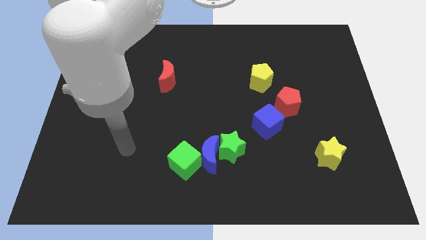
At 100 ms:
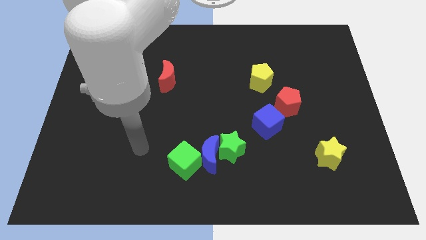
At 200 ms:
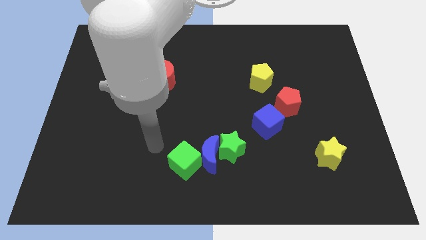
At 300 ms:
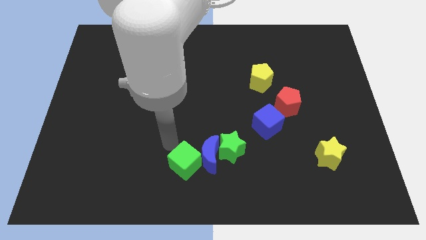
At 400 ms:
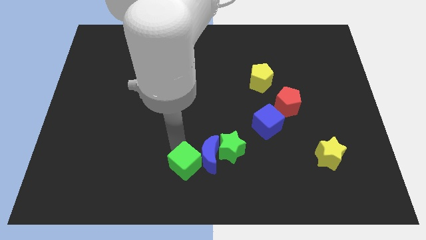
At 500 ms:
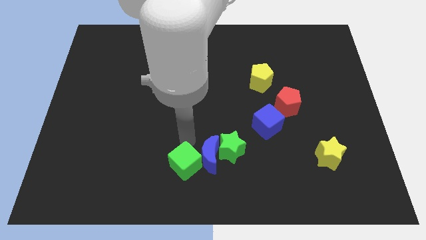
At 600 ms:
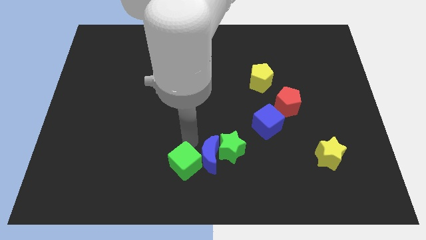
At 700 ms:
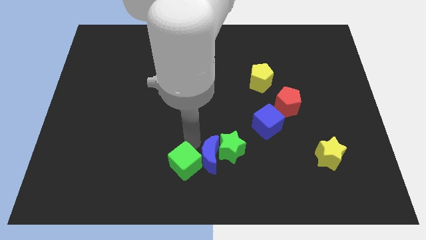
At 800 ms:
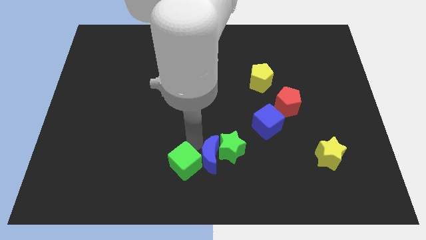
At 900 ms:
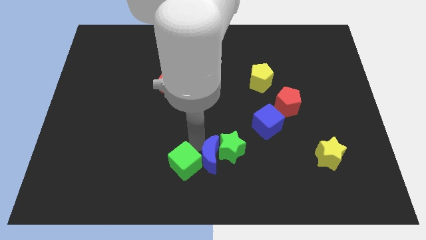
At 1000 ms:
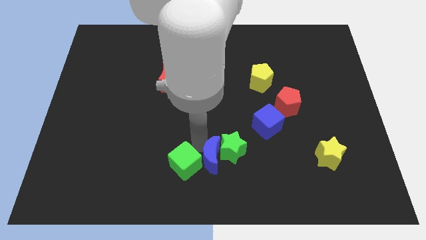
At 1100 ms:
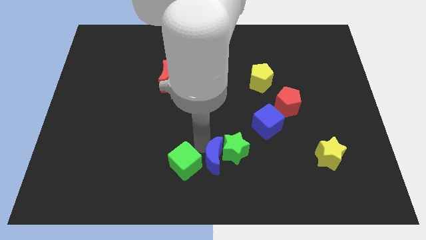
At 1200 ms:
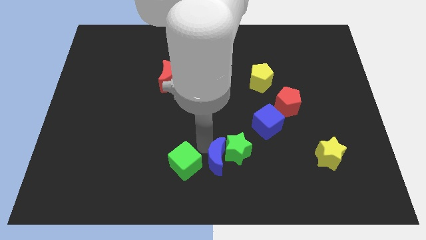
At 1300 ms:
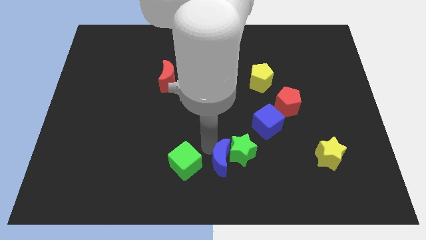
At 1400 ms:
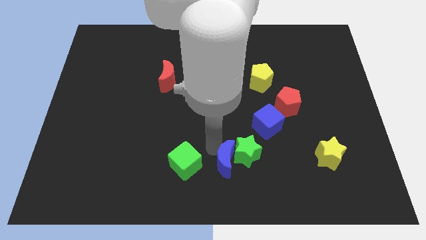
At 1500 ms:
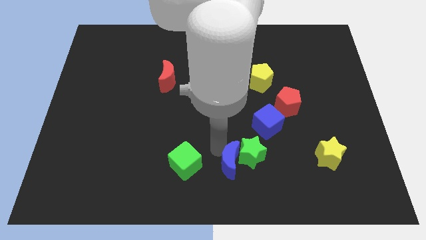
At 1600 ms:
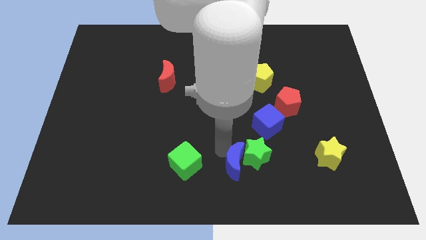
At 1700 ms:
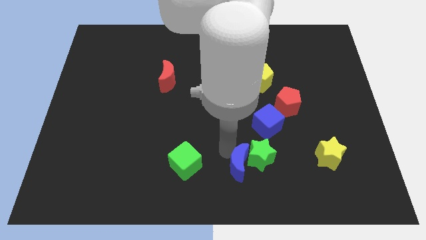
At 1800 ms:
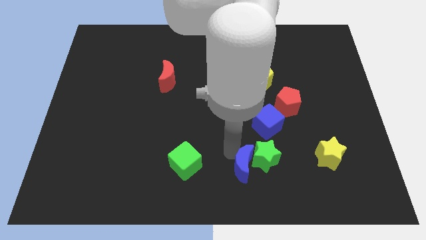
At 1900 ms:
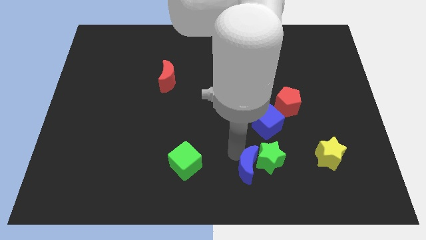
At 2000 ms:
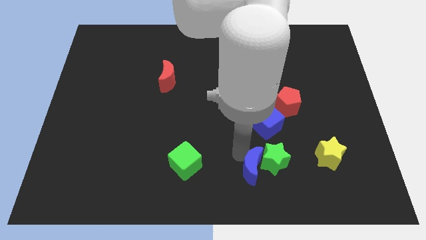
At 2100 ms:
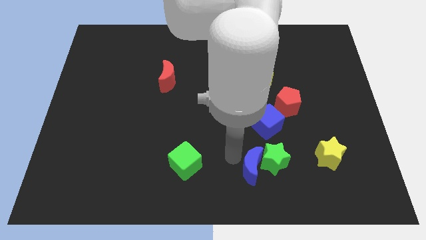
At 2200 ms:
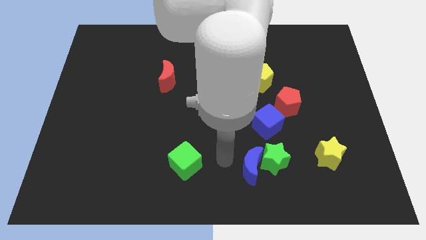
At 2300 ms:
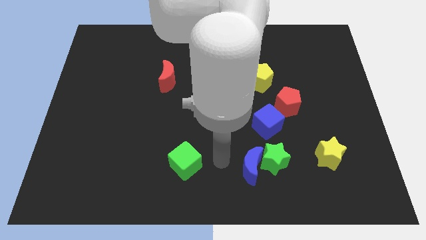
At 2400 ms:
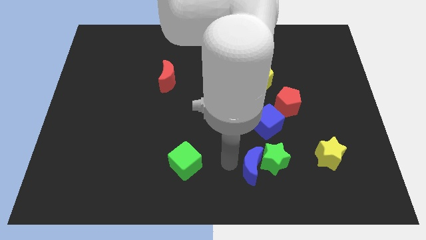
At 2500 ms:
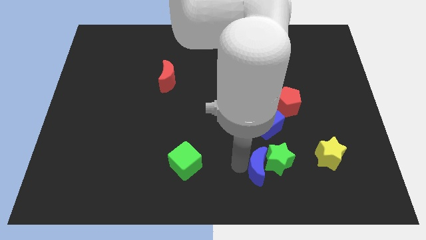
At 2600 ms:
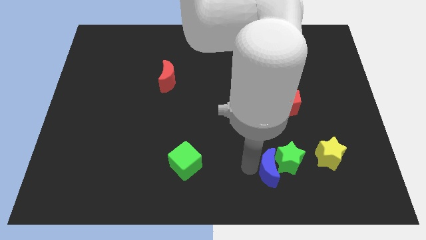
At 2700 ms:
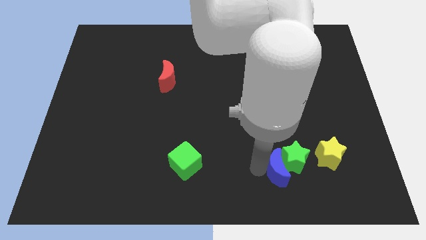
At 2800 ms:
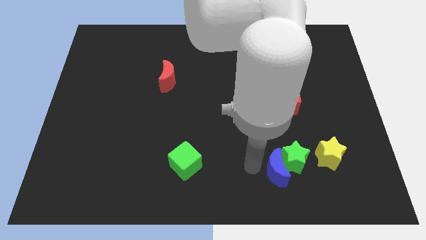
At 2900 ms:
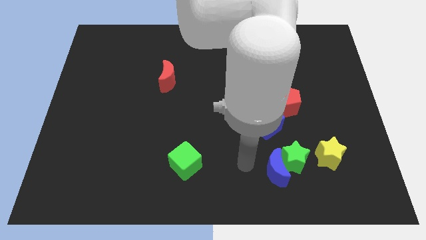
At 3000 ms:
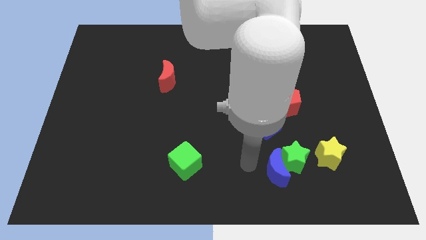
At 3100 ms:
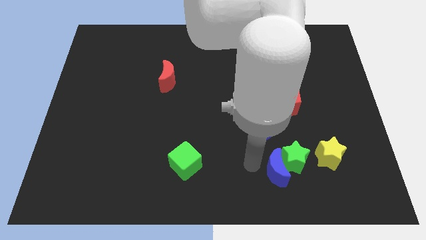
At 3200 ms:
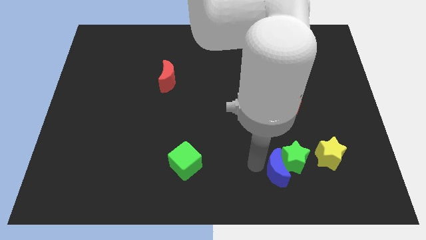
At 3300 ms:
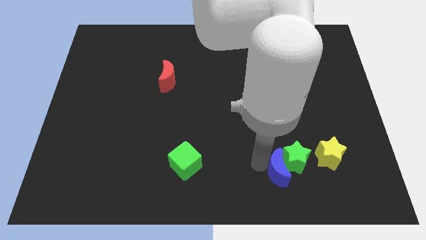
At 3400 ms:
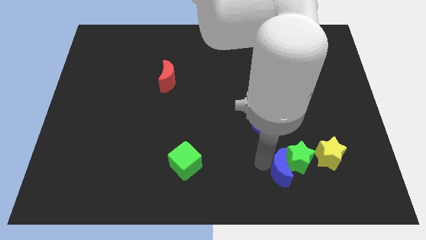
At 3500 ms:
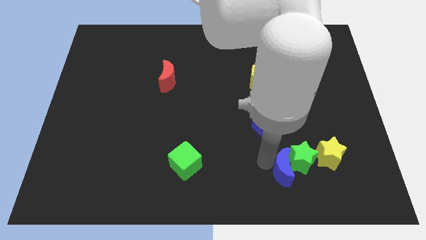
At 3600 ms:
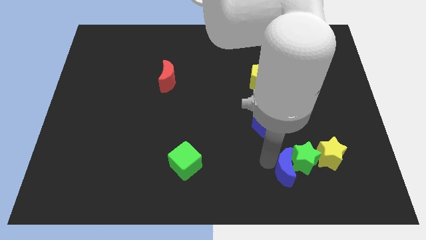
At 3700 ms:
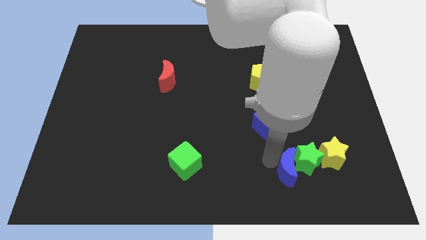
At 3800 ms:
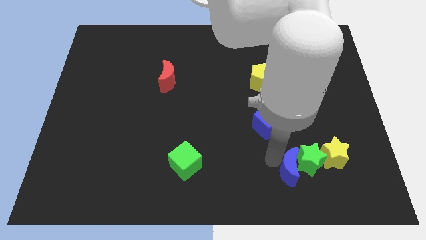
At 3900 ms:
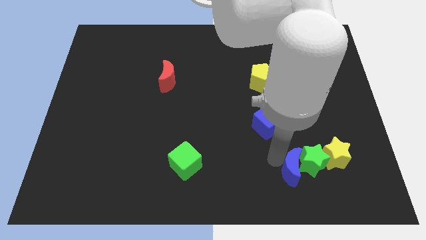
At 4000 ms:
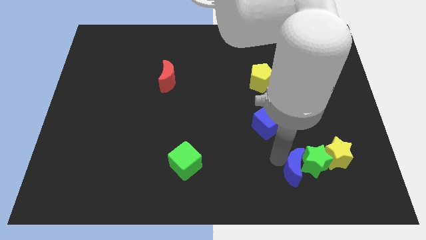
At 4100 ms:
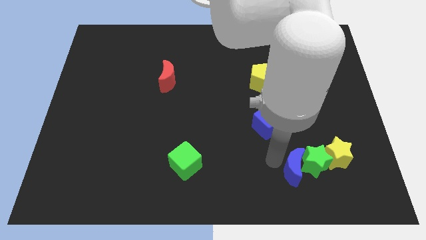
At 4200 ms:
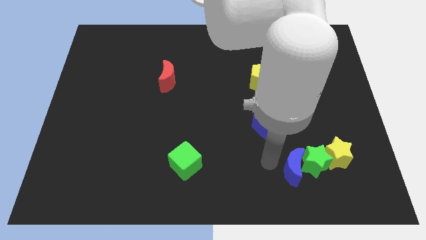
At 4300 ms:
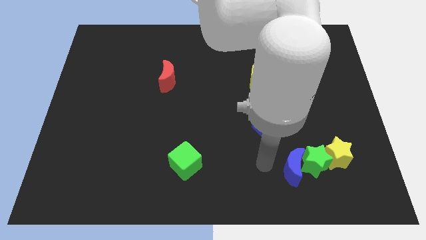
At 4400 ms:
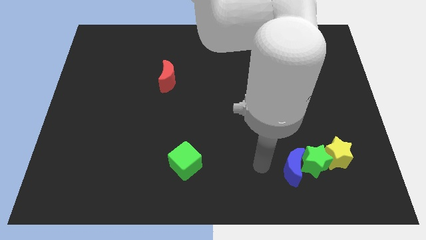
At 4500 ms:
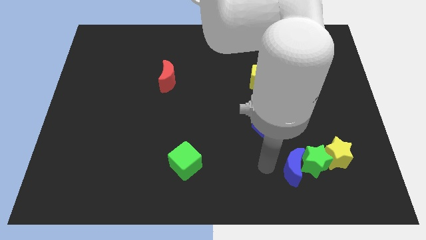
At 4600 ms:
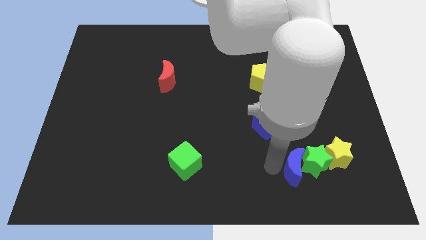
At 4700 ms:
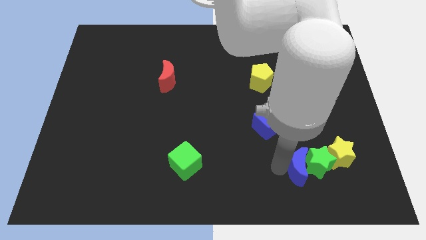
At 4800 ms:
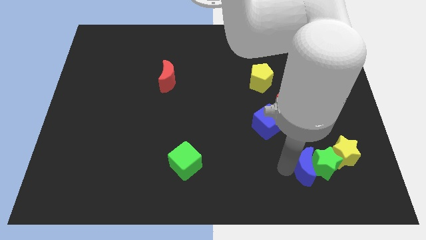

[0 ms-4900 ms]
pull the blue moon apart from the green star and green cube

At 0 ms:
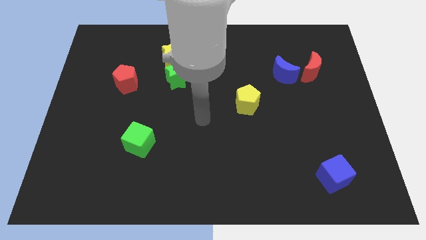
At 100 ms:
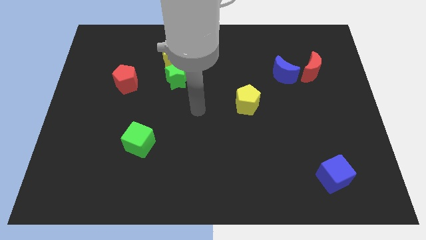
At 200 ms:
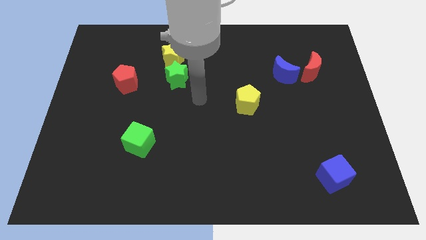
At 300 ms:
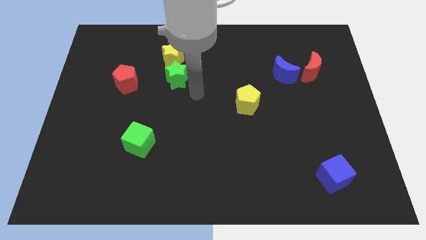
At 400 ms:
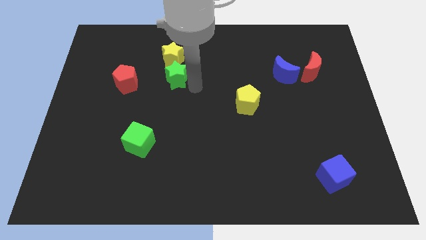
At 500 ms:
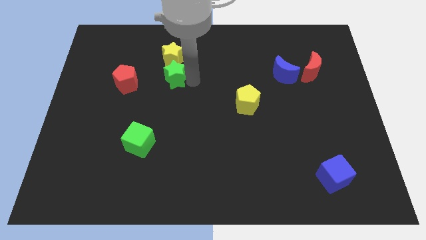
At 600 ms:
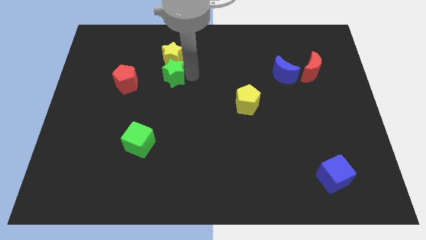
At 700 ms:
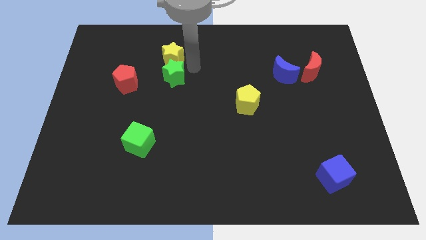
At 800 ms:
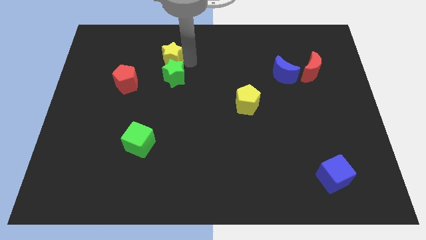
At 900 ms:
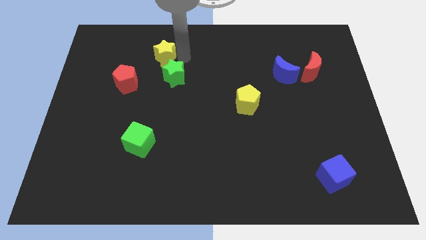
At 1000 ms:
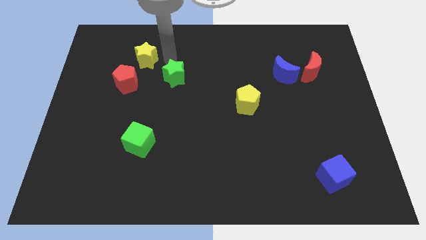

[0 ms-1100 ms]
move the green star away from the yellow star

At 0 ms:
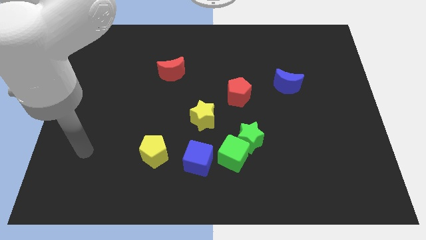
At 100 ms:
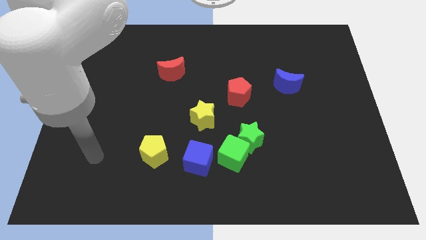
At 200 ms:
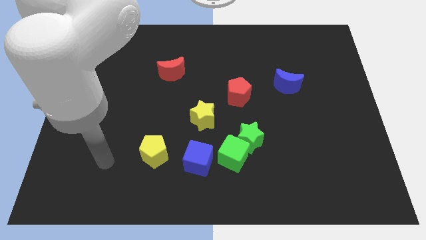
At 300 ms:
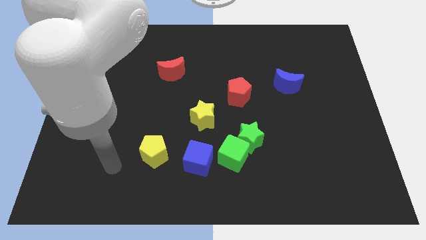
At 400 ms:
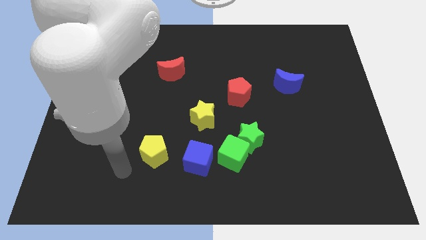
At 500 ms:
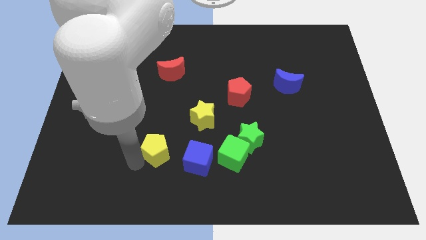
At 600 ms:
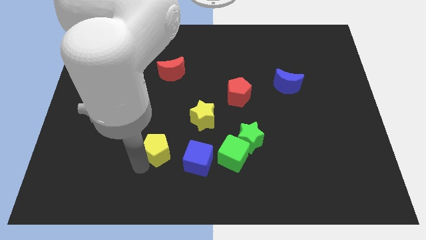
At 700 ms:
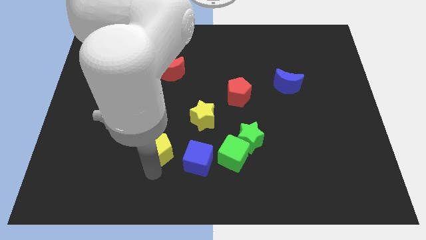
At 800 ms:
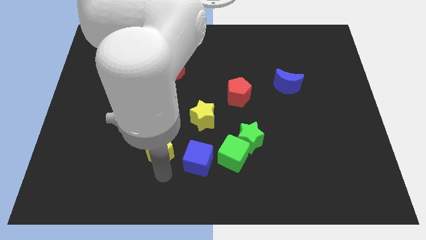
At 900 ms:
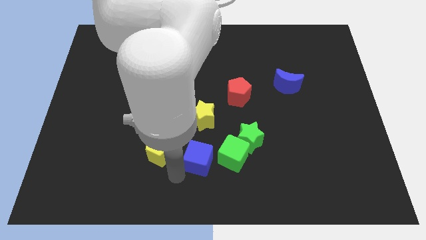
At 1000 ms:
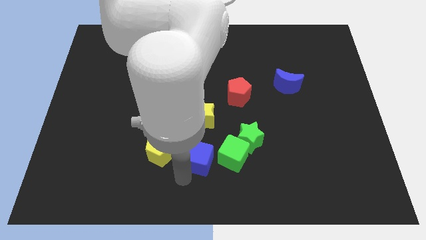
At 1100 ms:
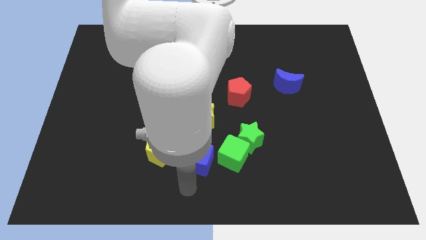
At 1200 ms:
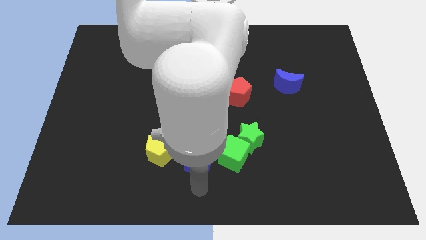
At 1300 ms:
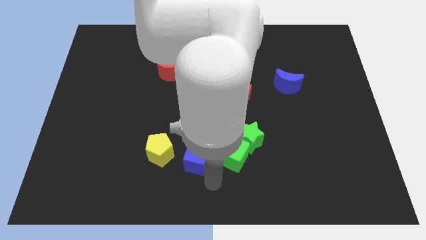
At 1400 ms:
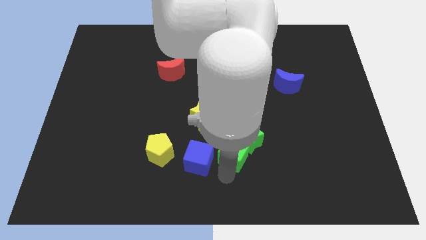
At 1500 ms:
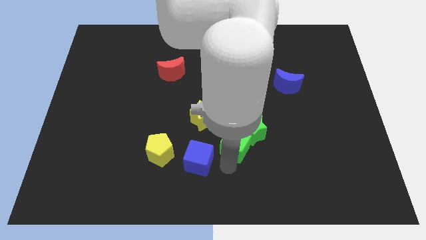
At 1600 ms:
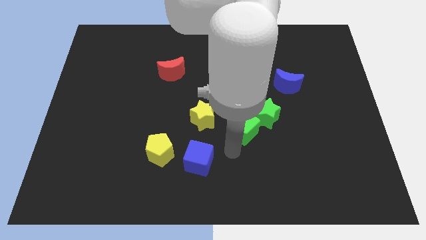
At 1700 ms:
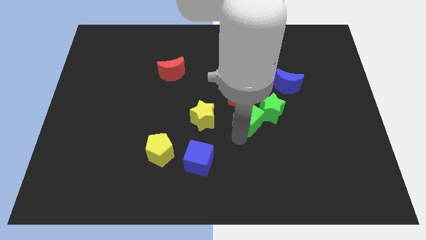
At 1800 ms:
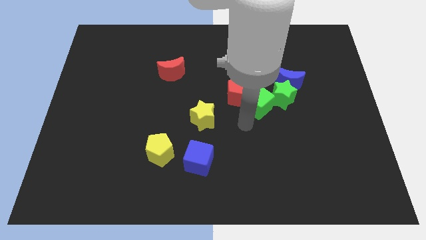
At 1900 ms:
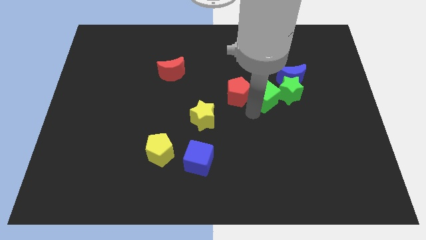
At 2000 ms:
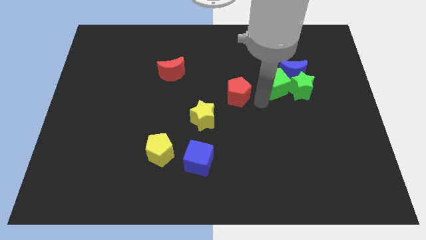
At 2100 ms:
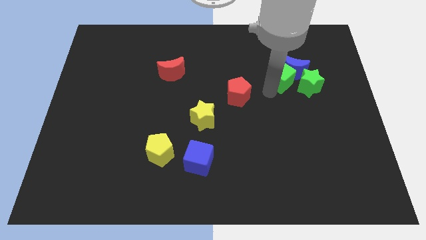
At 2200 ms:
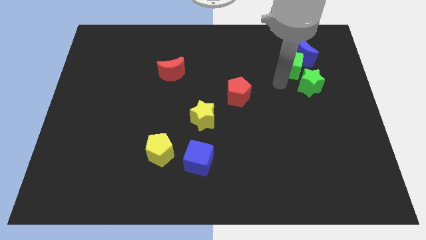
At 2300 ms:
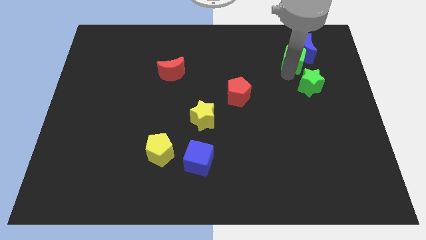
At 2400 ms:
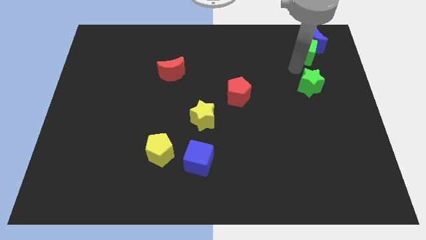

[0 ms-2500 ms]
separate the green star from the green cube

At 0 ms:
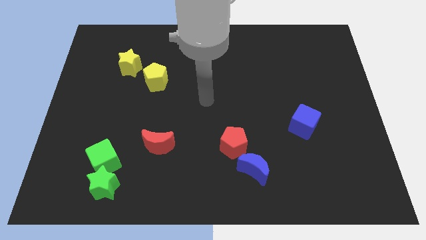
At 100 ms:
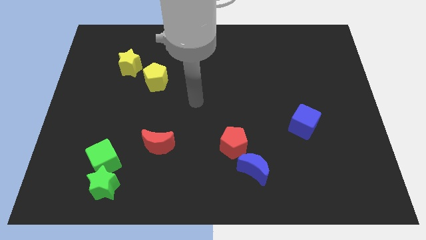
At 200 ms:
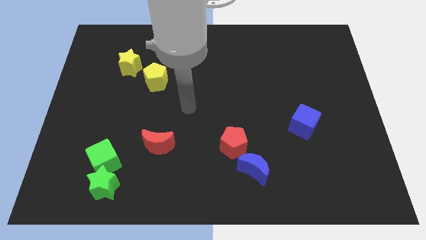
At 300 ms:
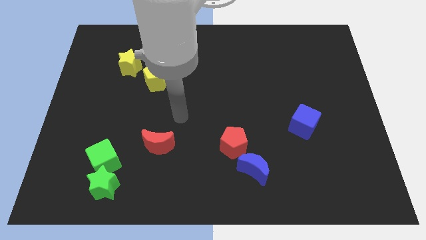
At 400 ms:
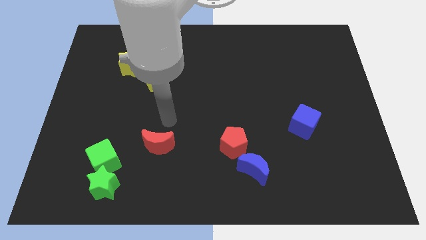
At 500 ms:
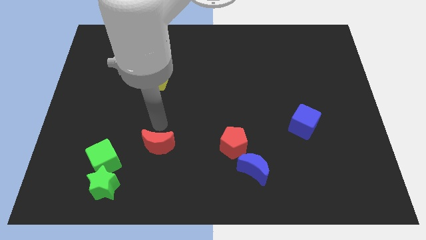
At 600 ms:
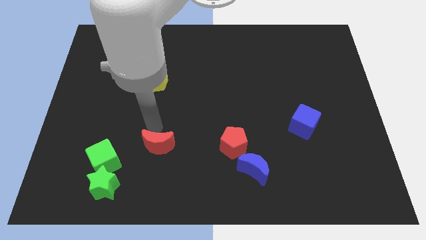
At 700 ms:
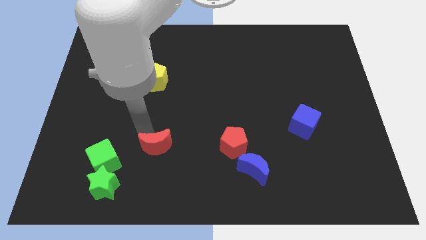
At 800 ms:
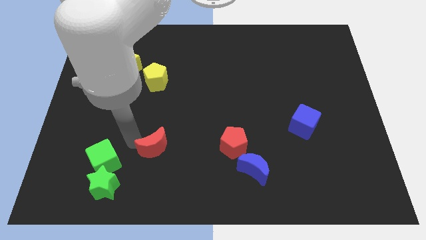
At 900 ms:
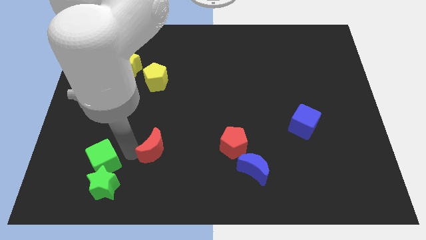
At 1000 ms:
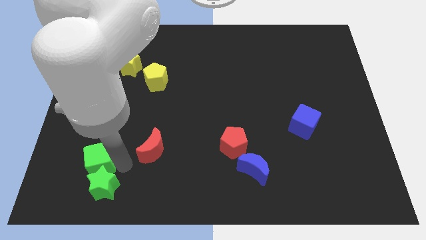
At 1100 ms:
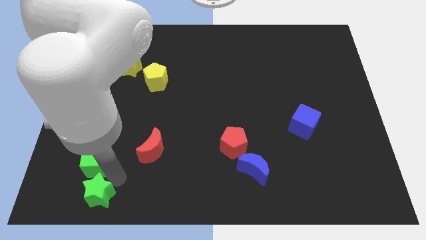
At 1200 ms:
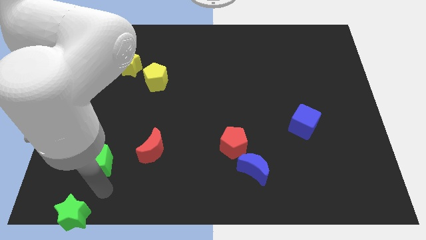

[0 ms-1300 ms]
pull the green cube apart from the green star
